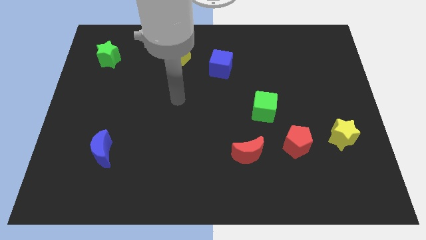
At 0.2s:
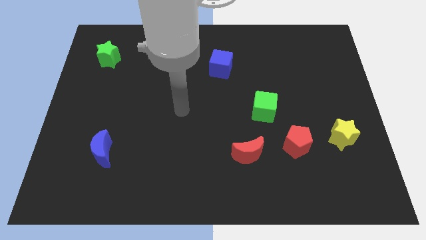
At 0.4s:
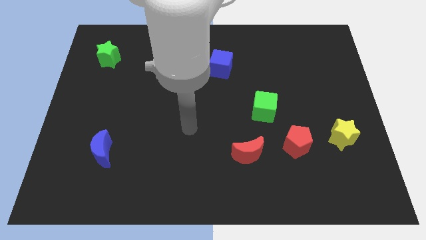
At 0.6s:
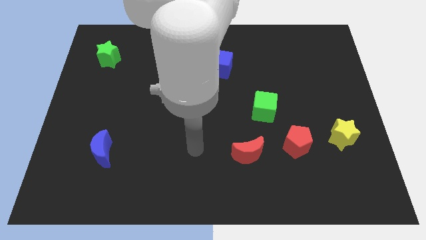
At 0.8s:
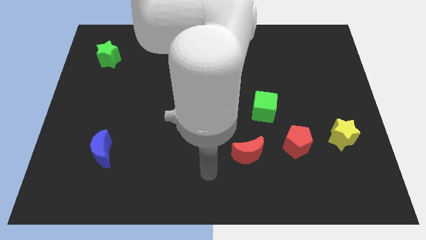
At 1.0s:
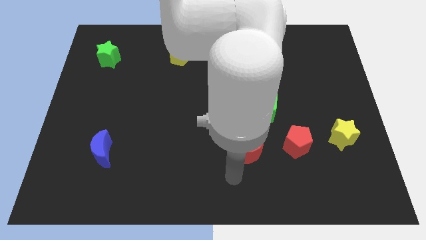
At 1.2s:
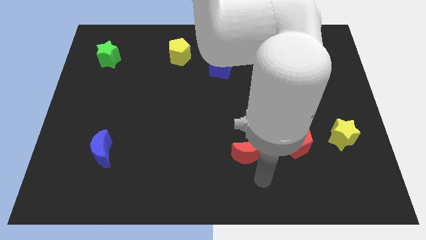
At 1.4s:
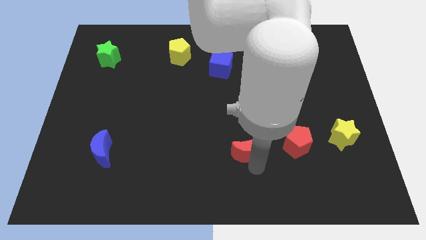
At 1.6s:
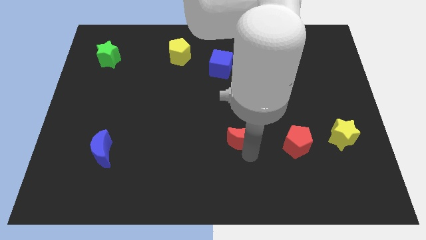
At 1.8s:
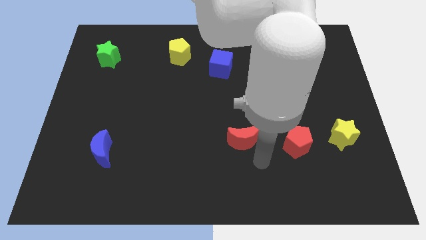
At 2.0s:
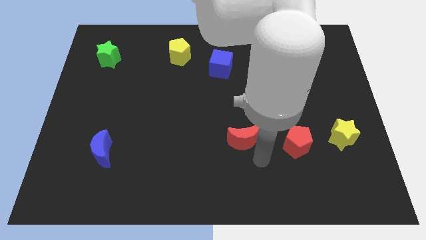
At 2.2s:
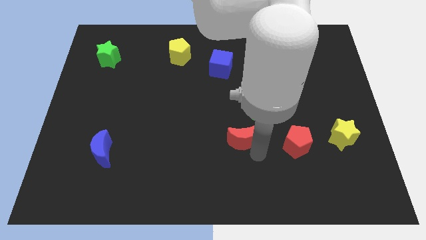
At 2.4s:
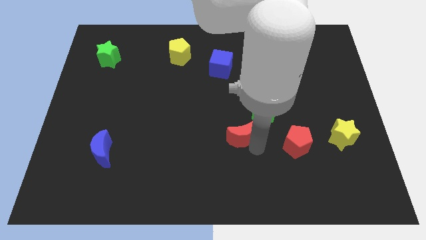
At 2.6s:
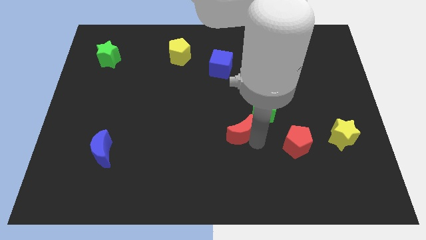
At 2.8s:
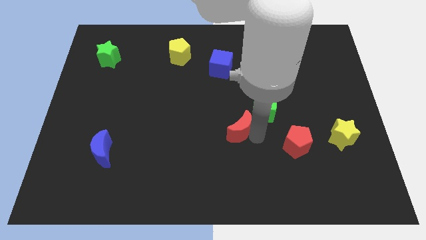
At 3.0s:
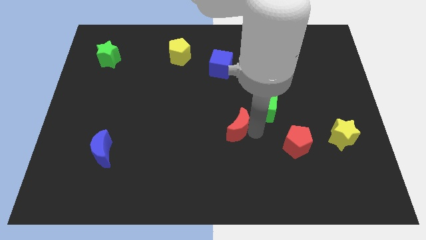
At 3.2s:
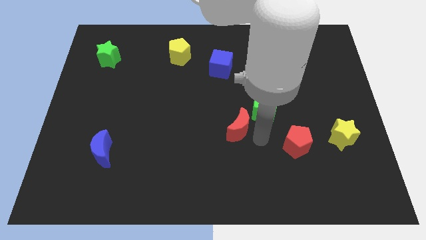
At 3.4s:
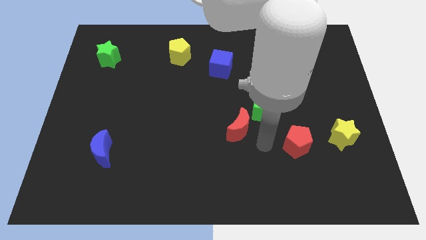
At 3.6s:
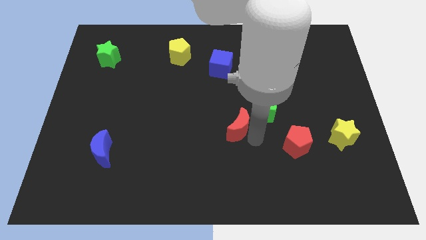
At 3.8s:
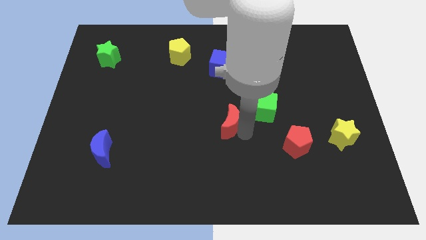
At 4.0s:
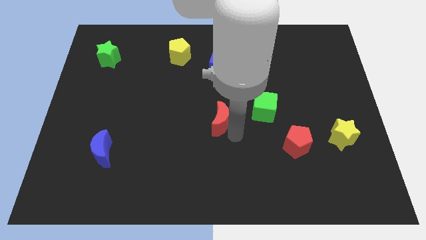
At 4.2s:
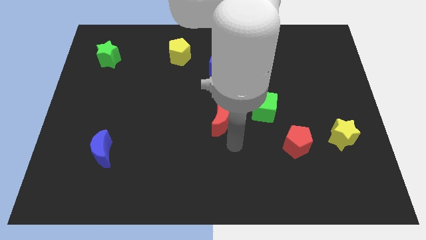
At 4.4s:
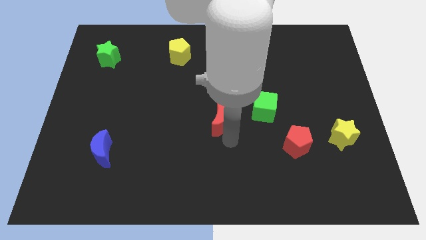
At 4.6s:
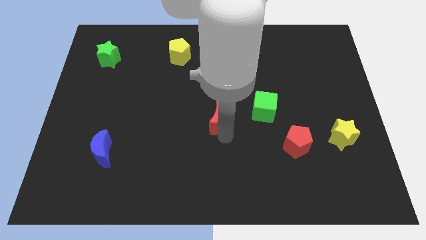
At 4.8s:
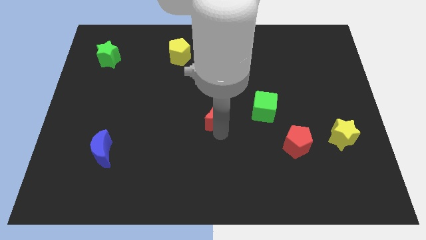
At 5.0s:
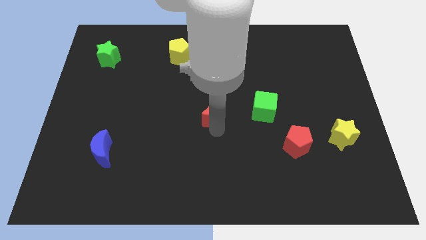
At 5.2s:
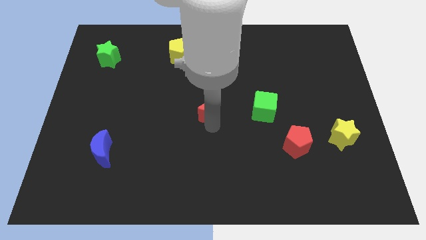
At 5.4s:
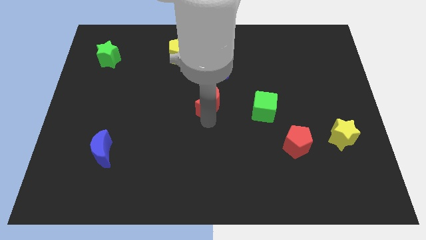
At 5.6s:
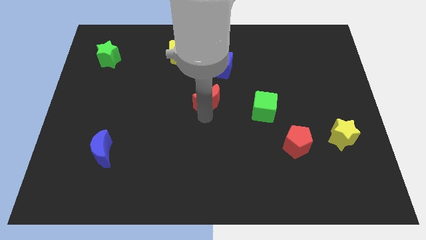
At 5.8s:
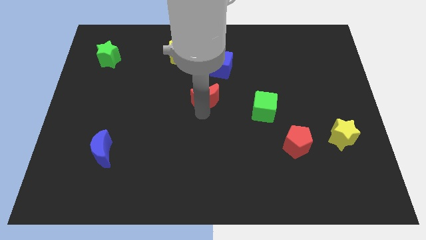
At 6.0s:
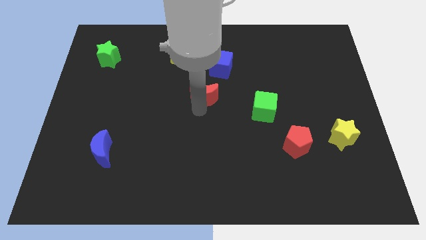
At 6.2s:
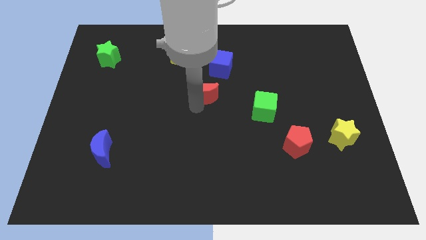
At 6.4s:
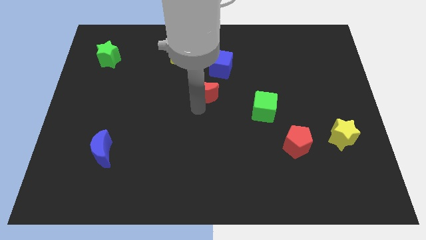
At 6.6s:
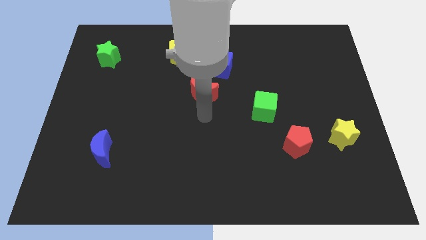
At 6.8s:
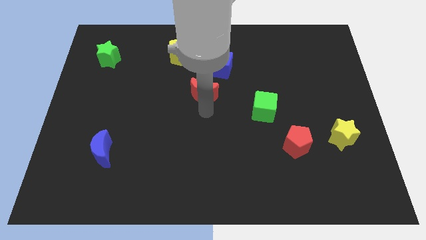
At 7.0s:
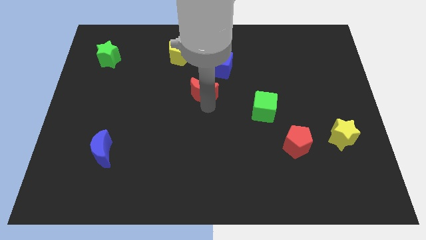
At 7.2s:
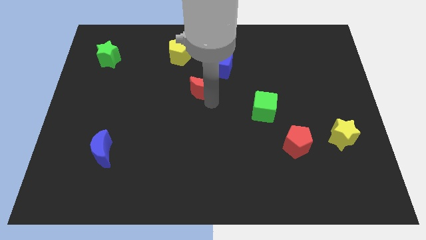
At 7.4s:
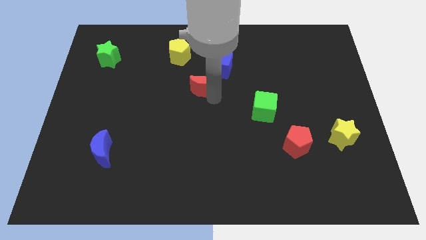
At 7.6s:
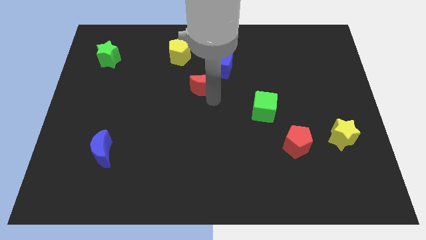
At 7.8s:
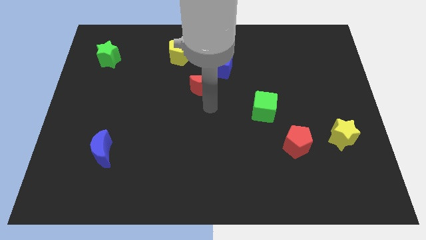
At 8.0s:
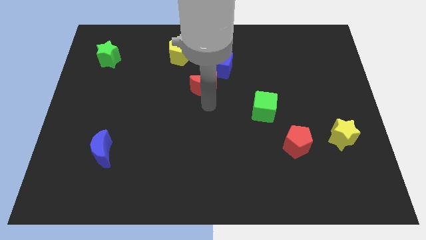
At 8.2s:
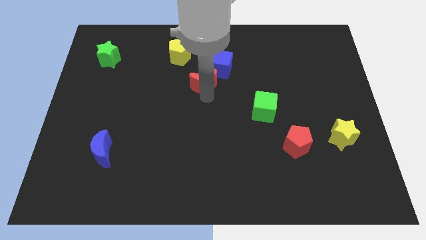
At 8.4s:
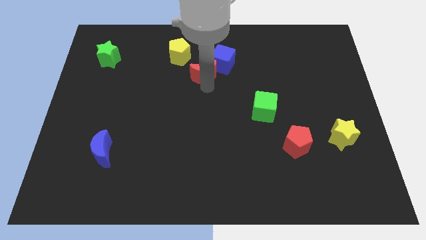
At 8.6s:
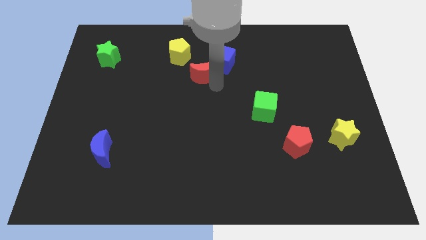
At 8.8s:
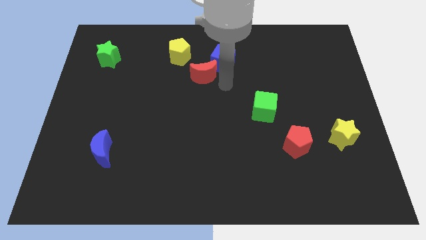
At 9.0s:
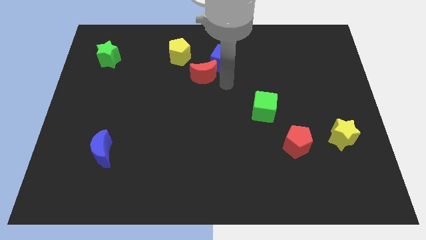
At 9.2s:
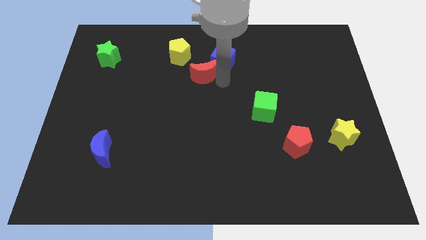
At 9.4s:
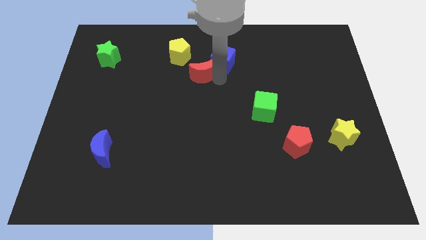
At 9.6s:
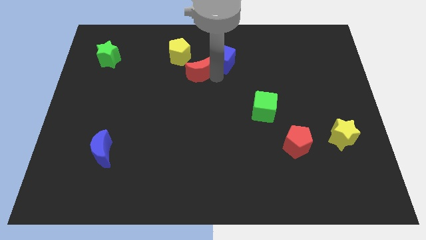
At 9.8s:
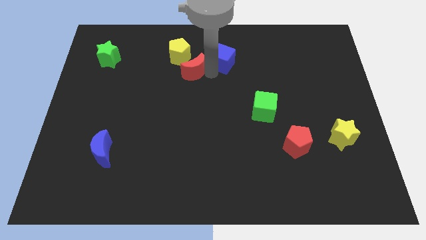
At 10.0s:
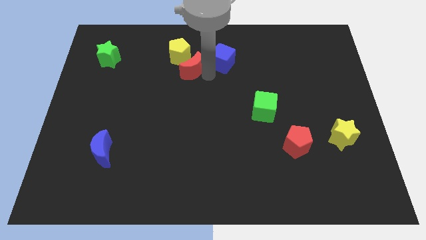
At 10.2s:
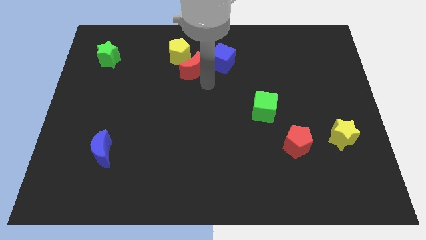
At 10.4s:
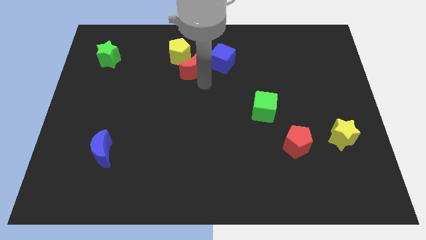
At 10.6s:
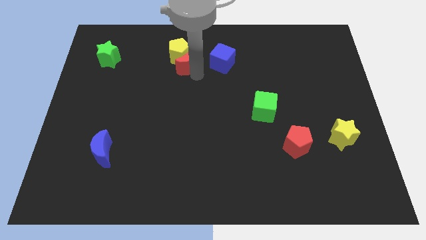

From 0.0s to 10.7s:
move the red moon to the yellow pentagon

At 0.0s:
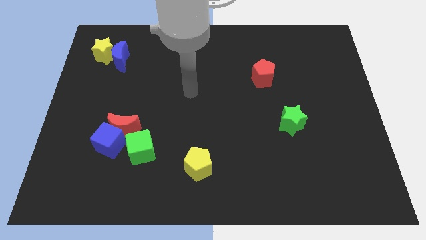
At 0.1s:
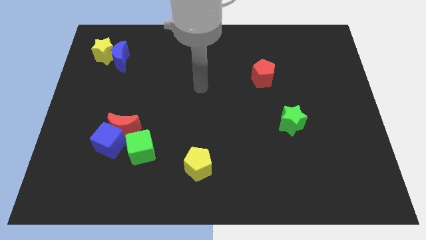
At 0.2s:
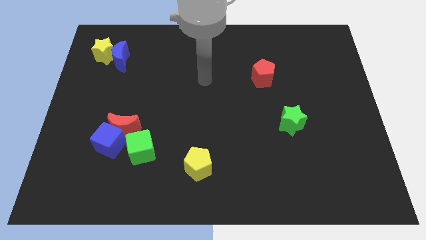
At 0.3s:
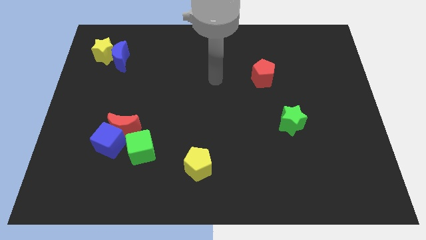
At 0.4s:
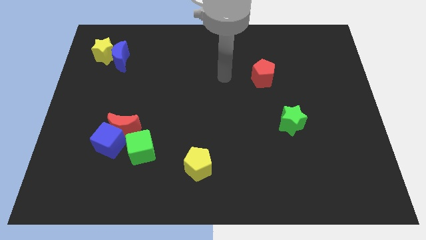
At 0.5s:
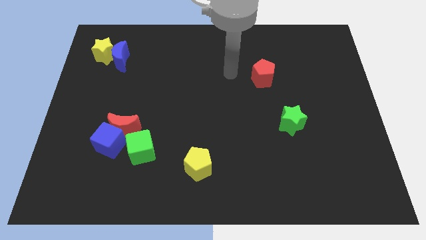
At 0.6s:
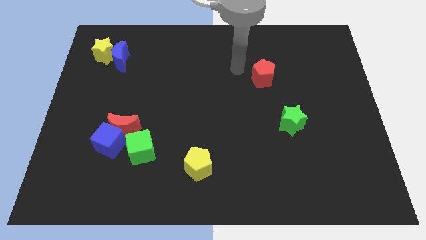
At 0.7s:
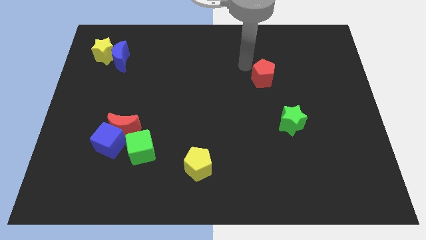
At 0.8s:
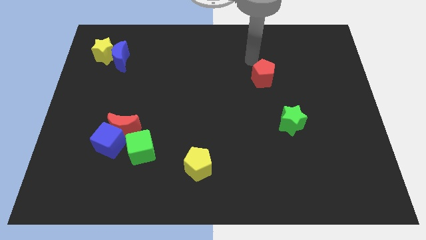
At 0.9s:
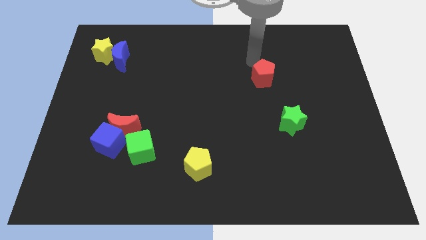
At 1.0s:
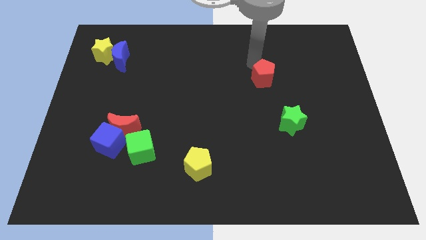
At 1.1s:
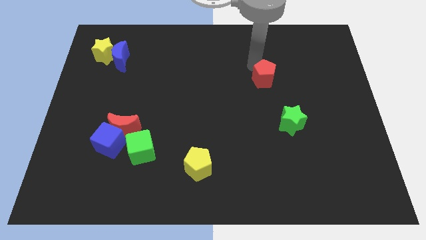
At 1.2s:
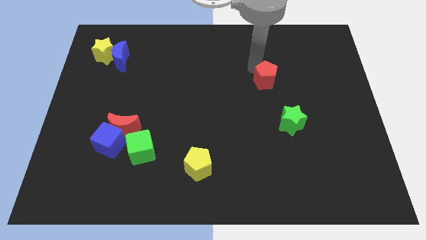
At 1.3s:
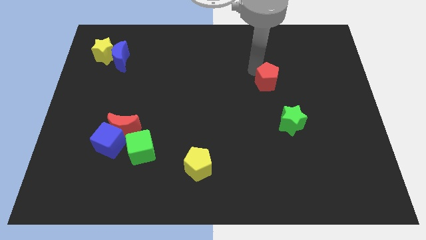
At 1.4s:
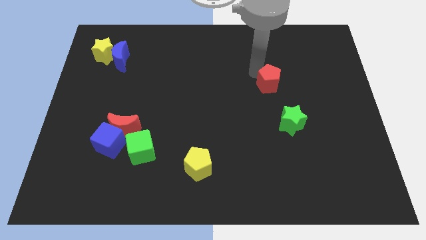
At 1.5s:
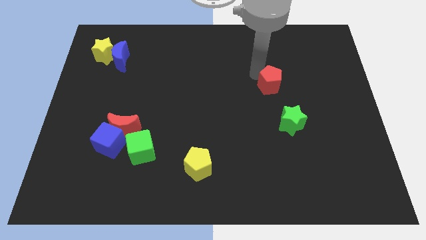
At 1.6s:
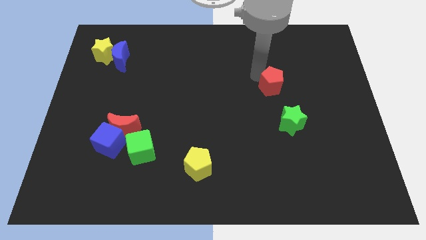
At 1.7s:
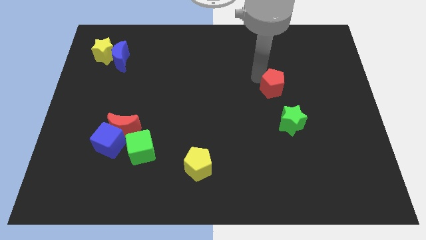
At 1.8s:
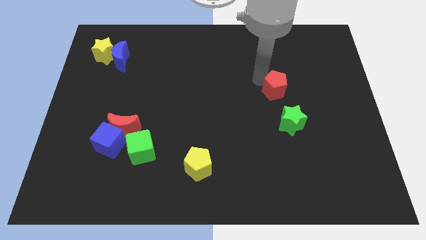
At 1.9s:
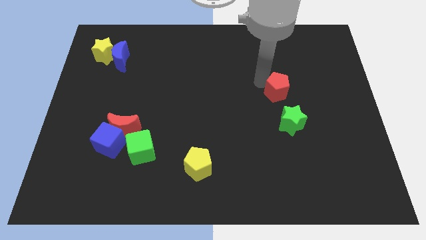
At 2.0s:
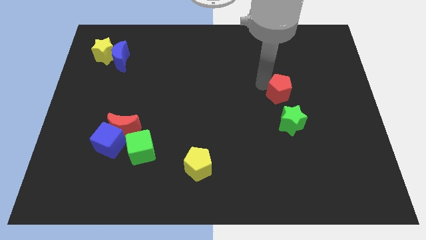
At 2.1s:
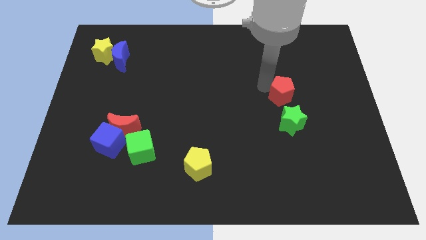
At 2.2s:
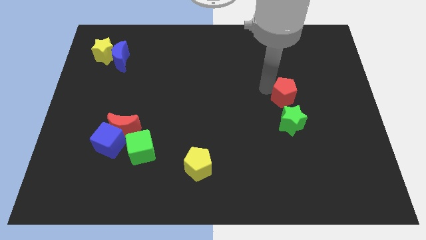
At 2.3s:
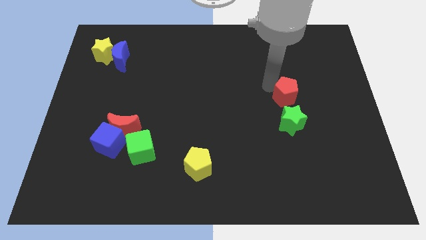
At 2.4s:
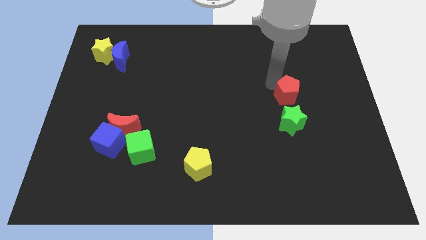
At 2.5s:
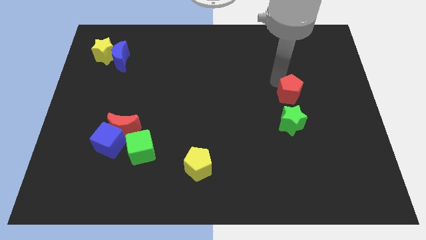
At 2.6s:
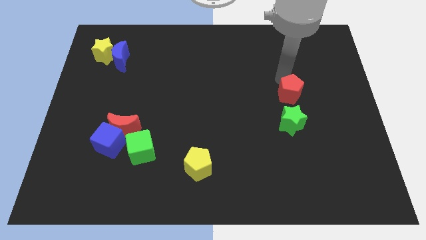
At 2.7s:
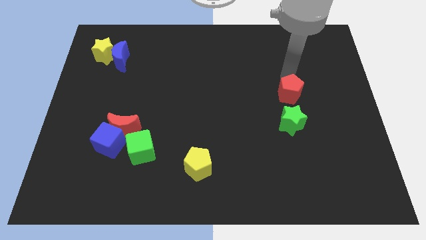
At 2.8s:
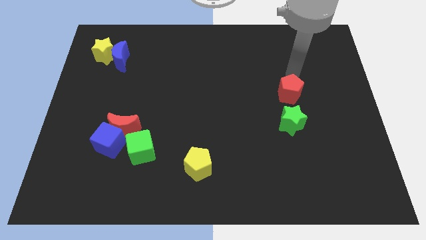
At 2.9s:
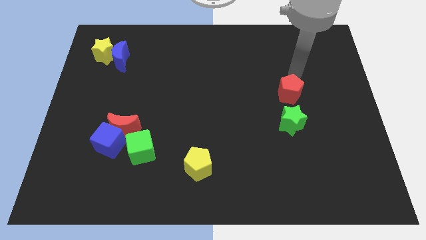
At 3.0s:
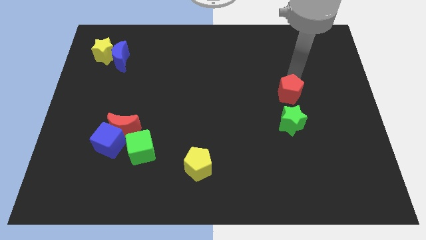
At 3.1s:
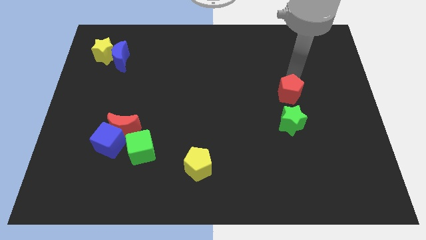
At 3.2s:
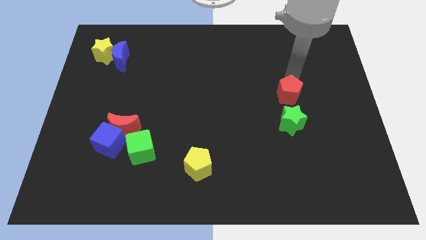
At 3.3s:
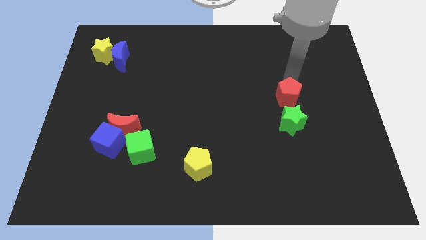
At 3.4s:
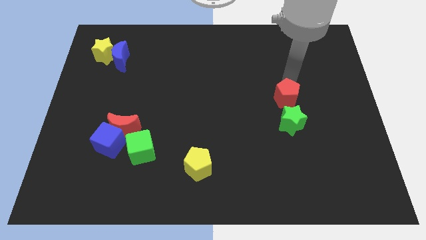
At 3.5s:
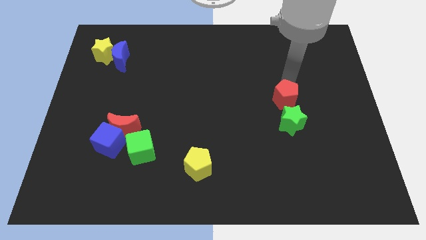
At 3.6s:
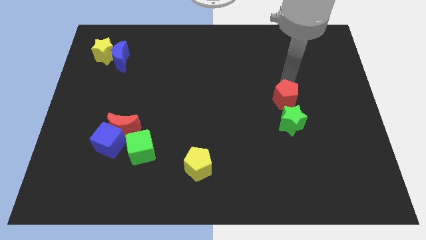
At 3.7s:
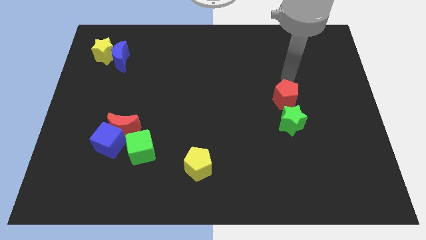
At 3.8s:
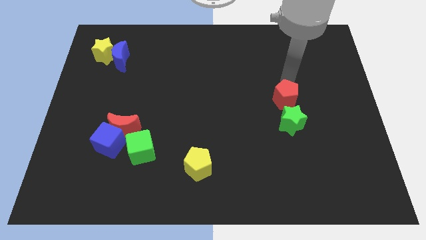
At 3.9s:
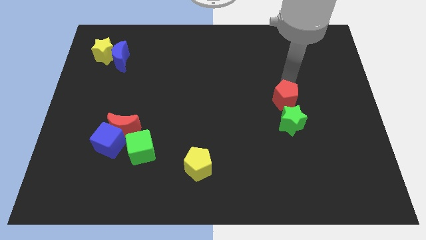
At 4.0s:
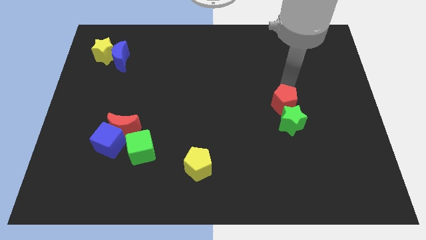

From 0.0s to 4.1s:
put the red pentagon next to the green star
